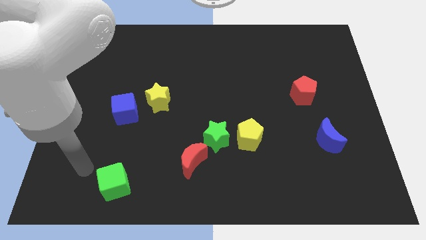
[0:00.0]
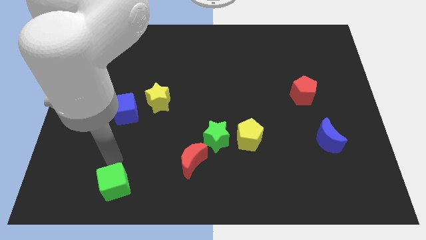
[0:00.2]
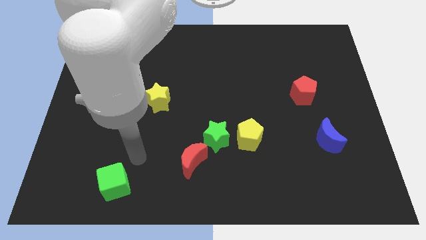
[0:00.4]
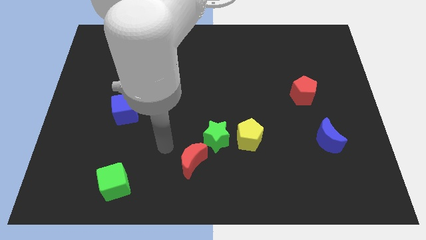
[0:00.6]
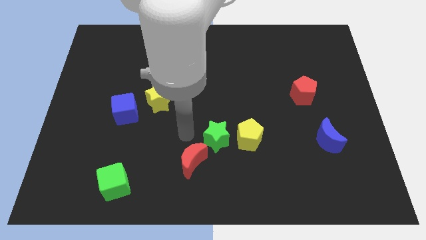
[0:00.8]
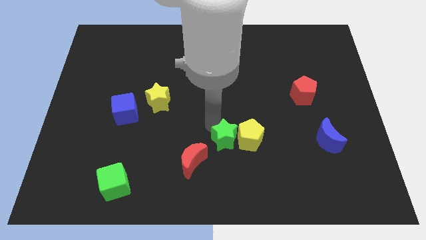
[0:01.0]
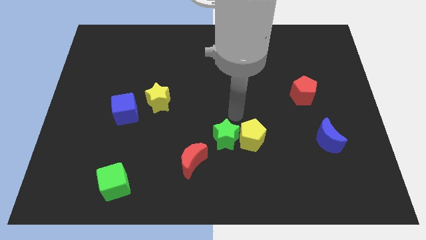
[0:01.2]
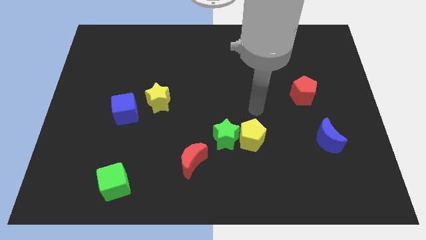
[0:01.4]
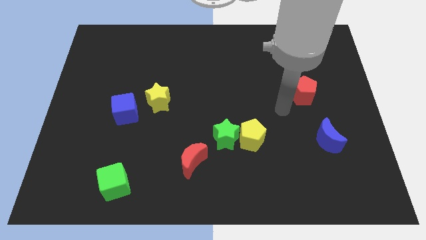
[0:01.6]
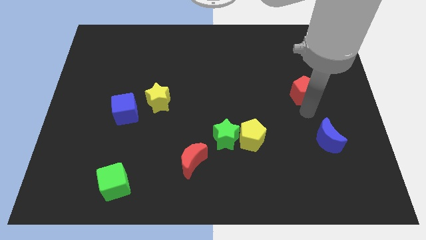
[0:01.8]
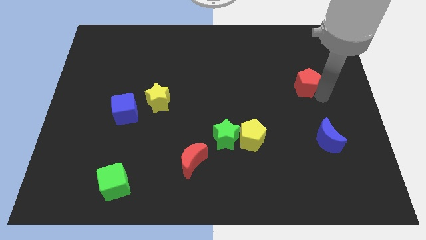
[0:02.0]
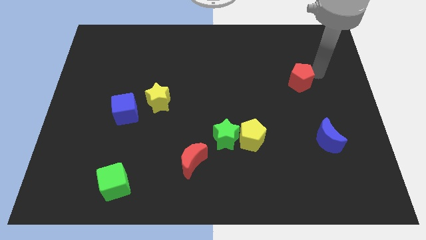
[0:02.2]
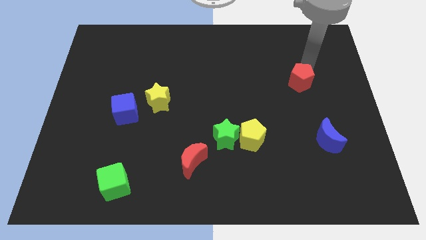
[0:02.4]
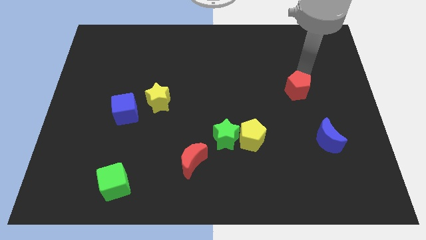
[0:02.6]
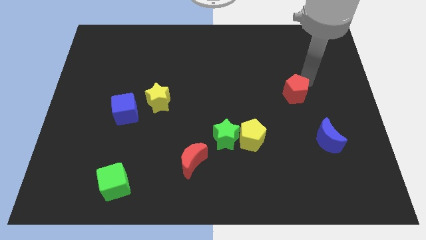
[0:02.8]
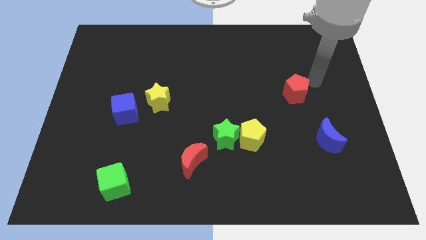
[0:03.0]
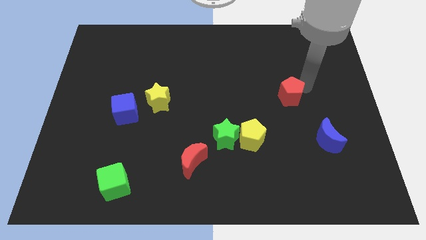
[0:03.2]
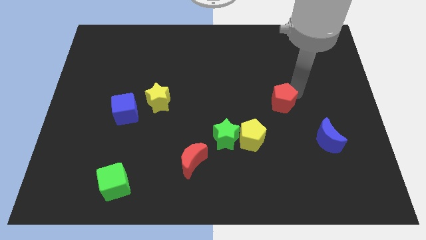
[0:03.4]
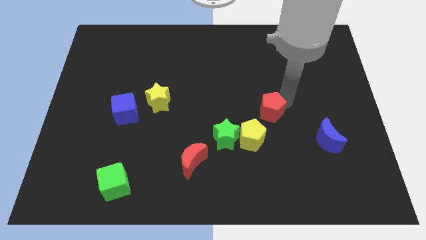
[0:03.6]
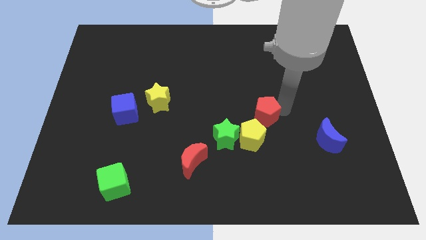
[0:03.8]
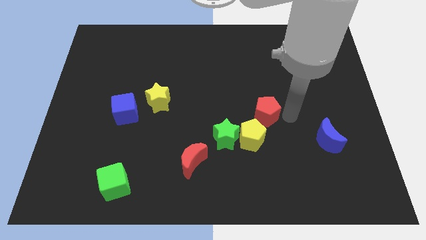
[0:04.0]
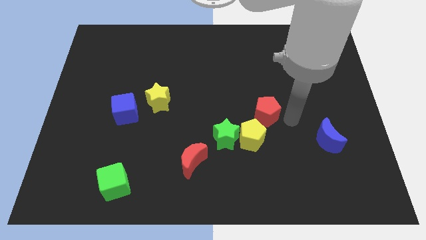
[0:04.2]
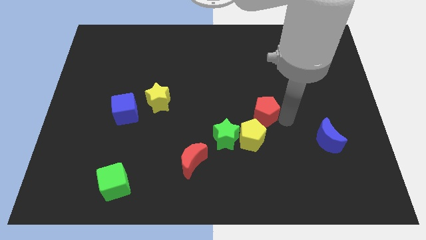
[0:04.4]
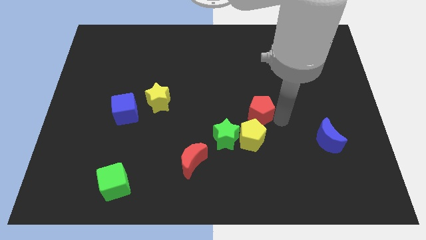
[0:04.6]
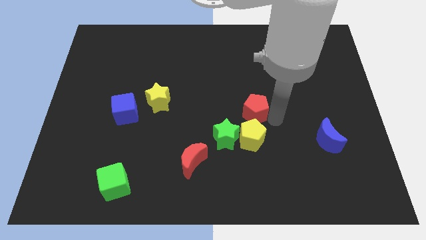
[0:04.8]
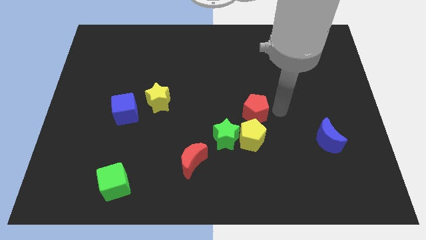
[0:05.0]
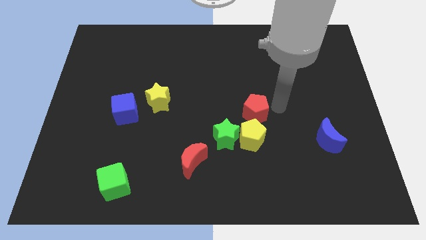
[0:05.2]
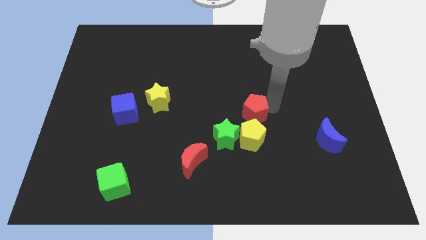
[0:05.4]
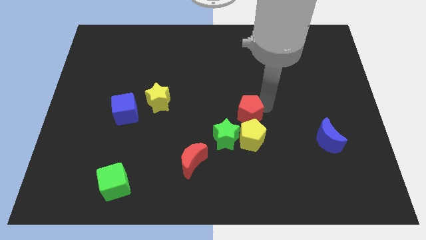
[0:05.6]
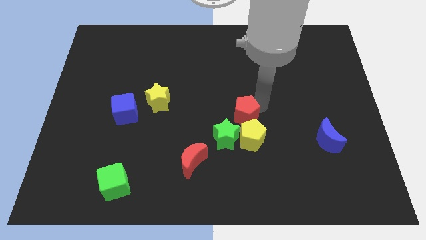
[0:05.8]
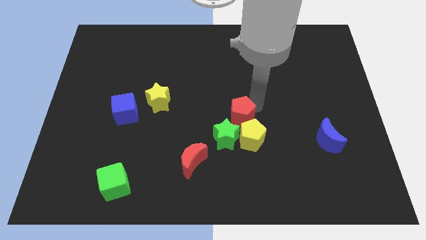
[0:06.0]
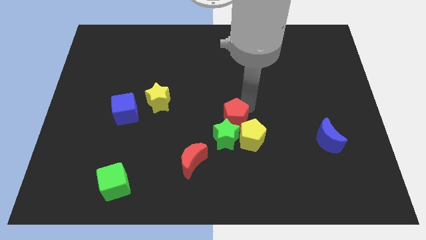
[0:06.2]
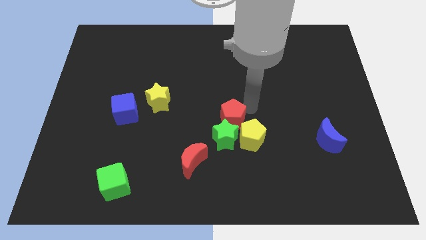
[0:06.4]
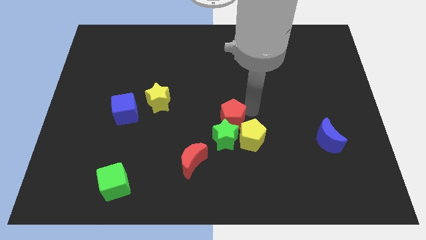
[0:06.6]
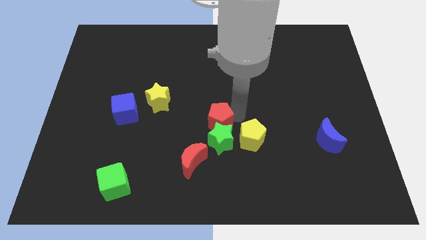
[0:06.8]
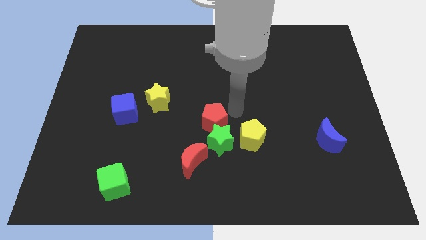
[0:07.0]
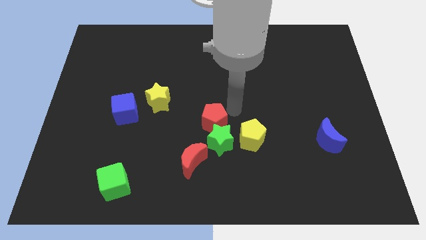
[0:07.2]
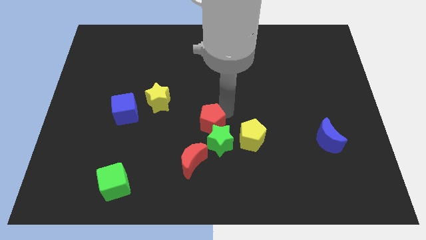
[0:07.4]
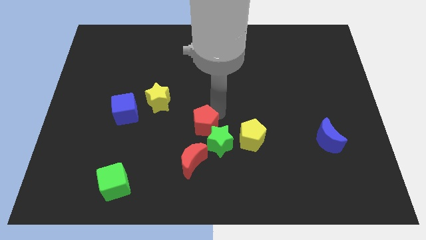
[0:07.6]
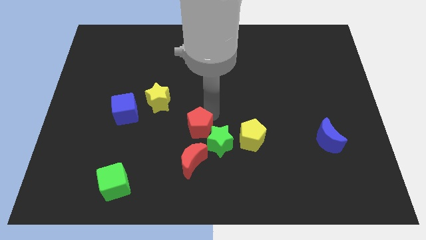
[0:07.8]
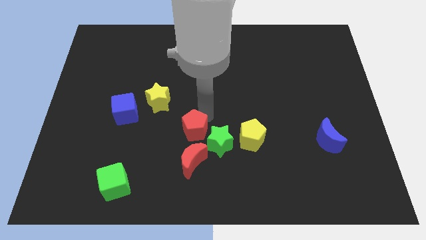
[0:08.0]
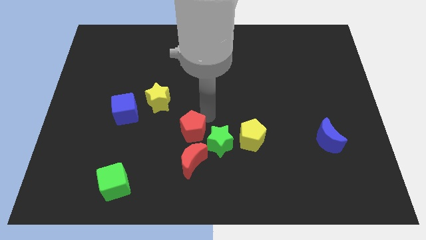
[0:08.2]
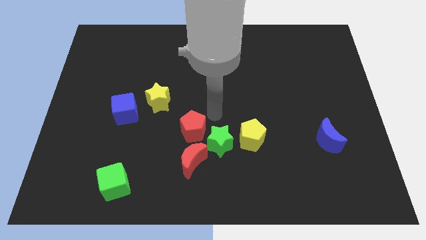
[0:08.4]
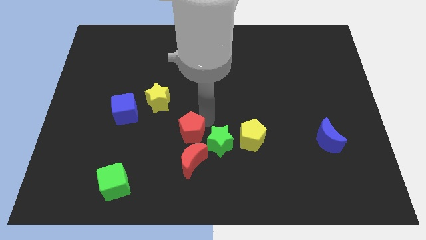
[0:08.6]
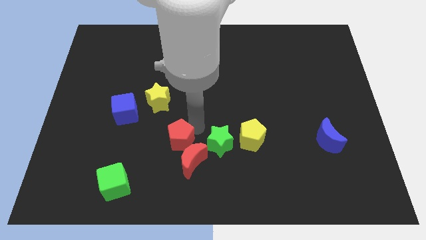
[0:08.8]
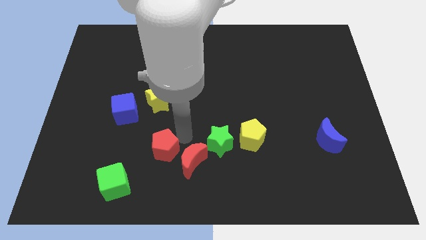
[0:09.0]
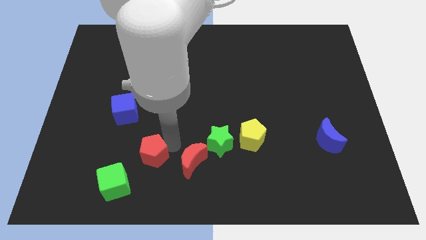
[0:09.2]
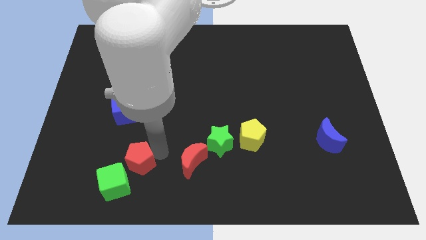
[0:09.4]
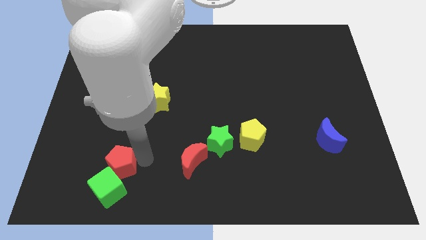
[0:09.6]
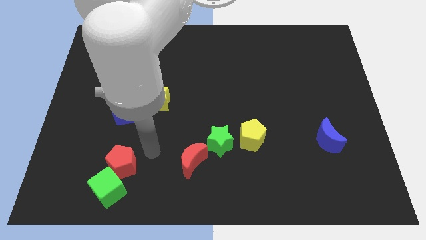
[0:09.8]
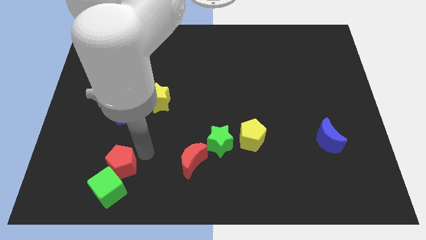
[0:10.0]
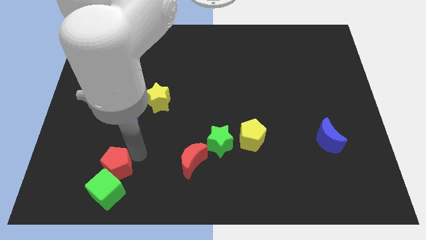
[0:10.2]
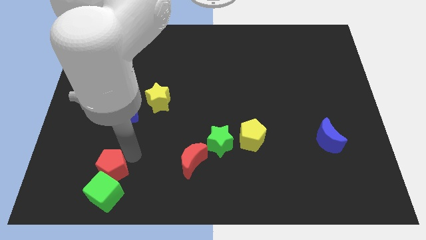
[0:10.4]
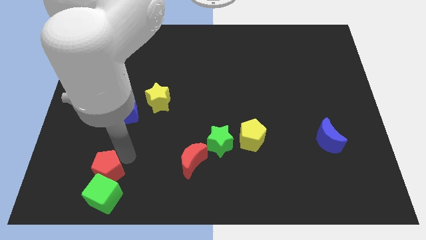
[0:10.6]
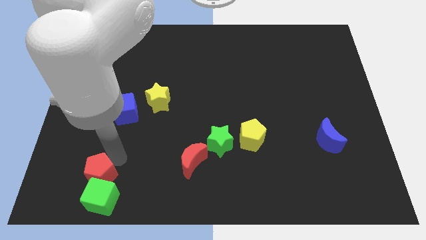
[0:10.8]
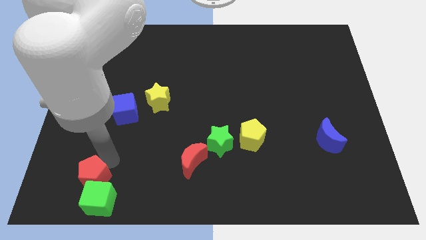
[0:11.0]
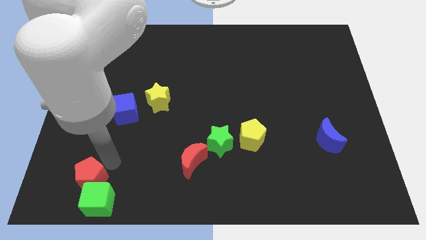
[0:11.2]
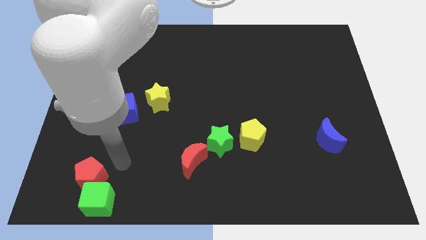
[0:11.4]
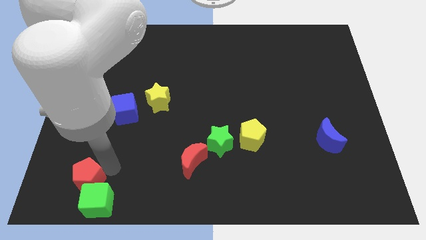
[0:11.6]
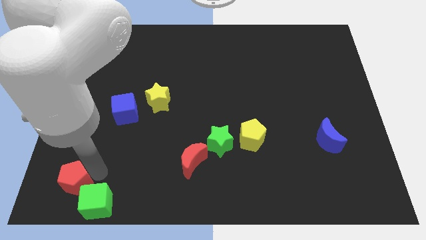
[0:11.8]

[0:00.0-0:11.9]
slide the red pentagon to the bottom left of the board

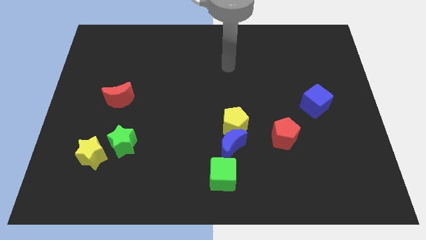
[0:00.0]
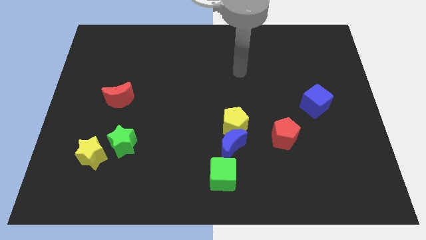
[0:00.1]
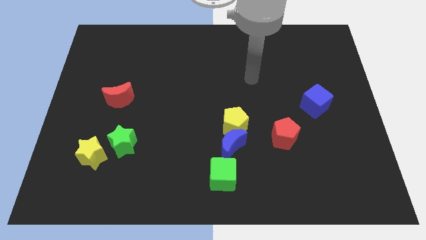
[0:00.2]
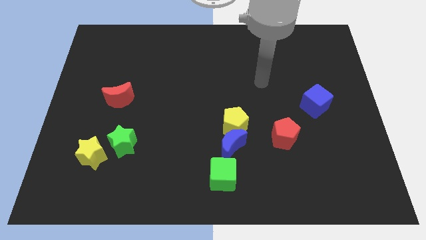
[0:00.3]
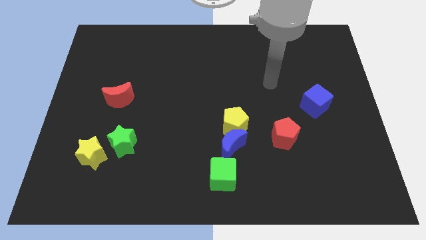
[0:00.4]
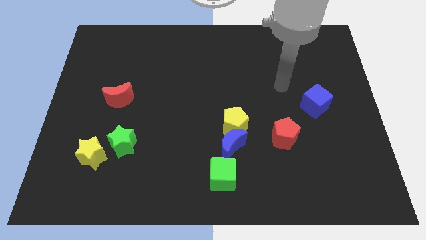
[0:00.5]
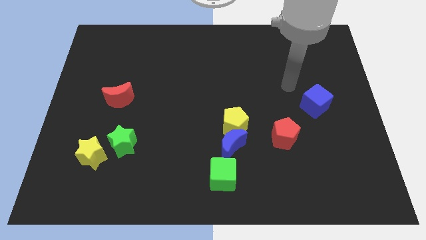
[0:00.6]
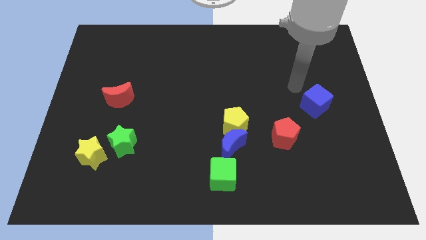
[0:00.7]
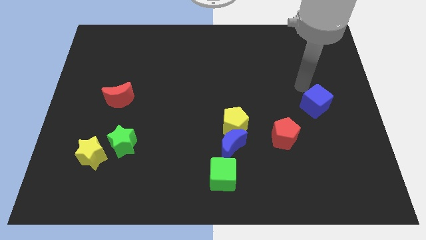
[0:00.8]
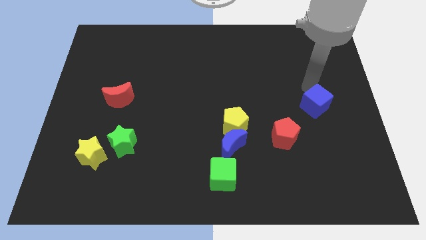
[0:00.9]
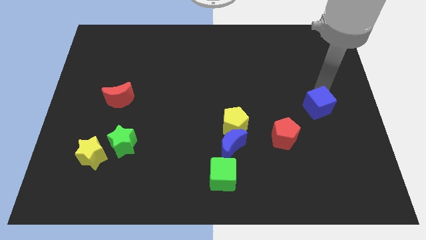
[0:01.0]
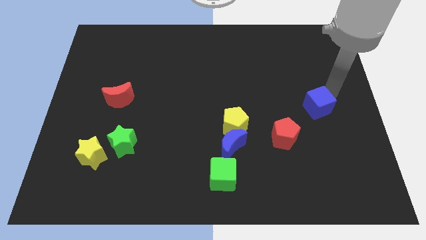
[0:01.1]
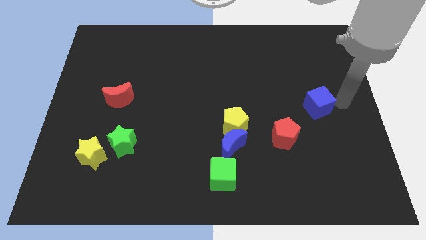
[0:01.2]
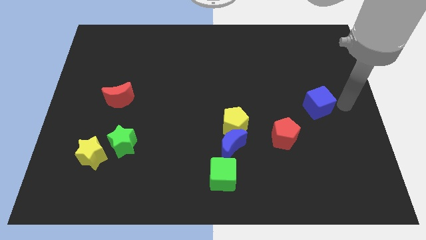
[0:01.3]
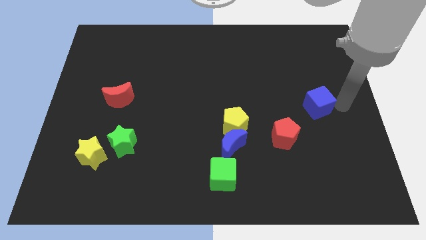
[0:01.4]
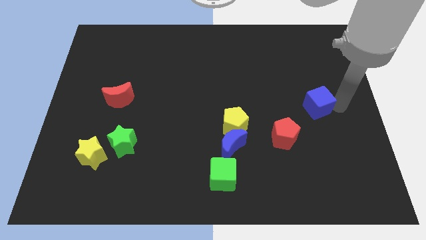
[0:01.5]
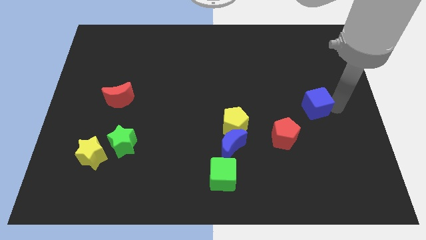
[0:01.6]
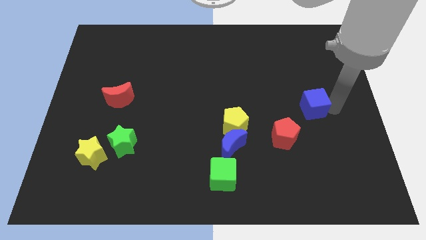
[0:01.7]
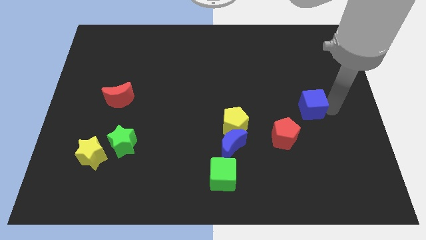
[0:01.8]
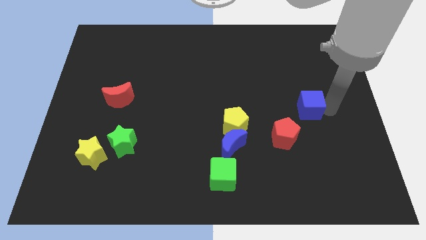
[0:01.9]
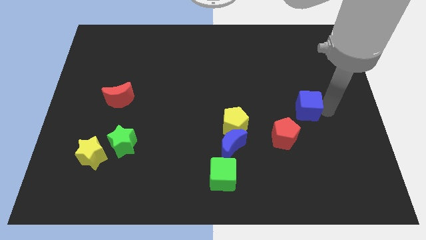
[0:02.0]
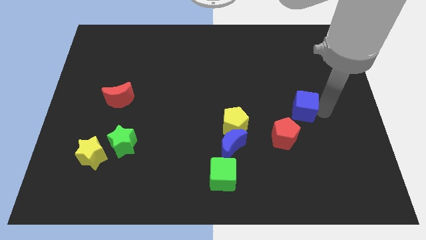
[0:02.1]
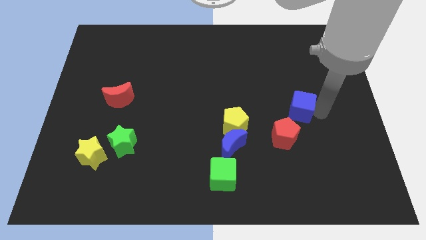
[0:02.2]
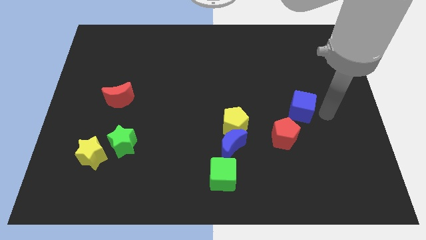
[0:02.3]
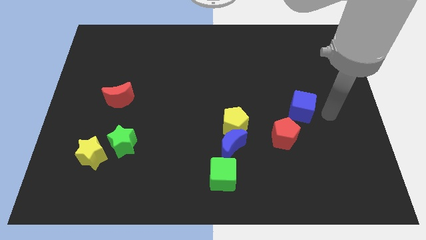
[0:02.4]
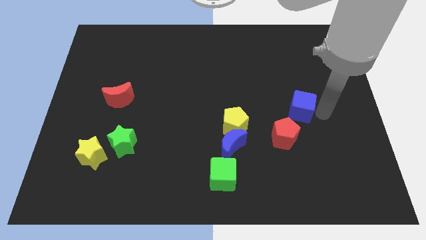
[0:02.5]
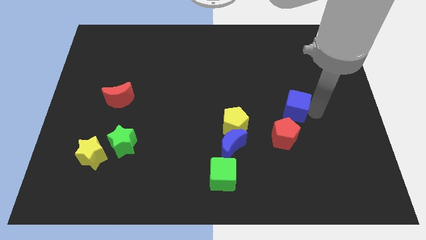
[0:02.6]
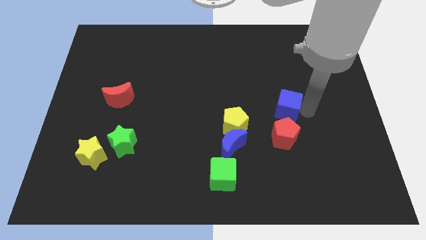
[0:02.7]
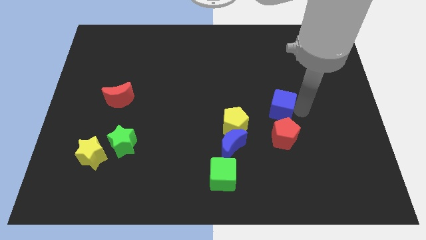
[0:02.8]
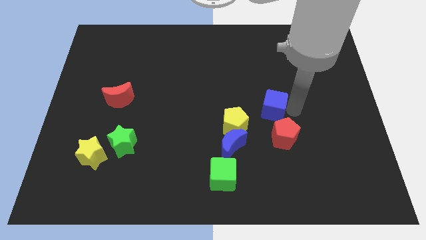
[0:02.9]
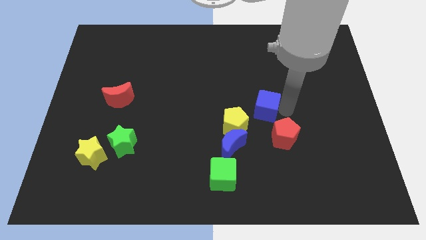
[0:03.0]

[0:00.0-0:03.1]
push the blue cube to the middle
